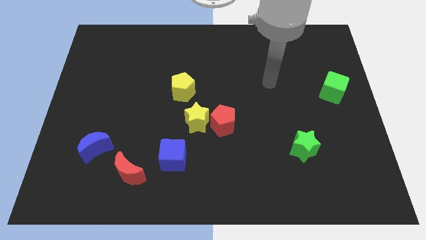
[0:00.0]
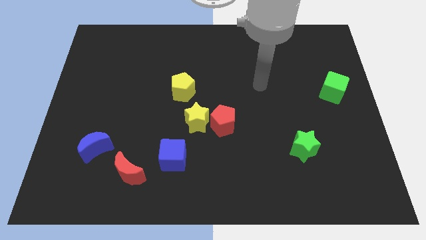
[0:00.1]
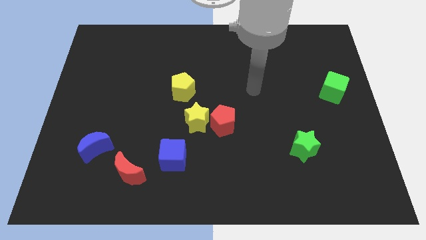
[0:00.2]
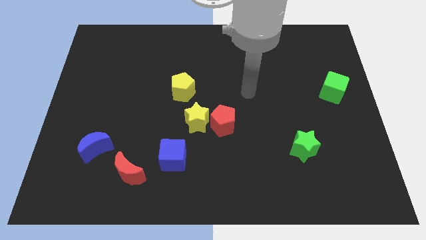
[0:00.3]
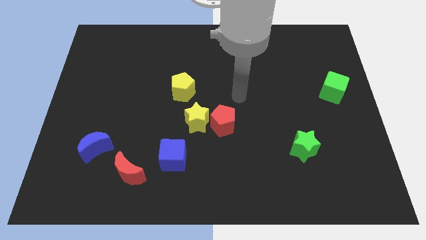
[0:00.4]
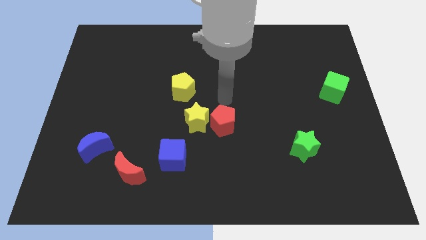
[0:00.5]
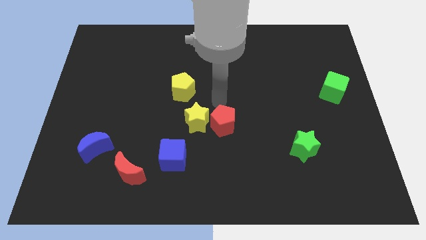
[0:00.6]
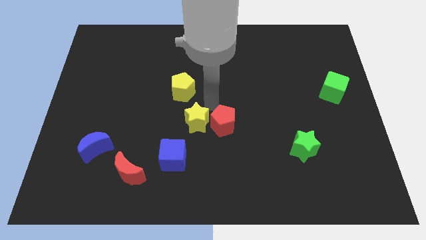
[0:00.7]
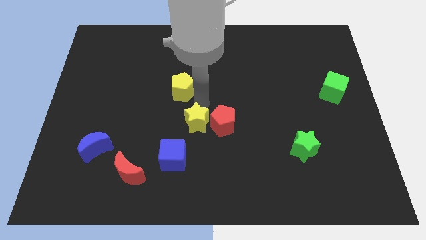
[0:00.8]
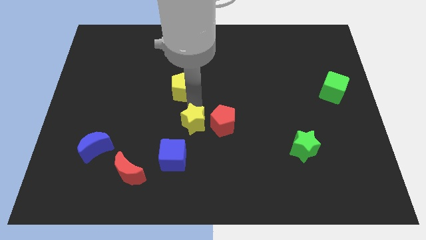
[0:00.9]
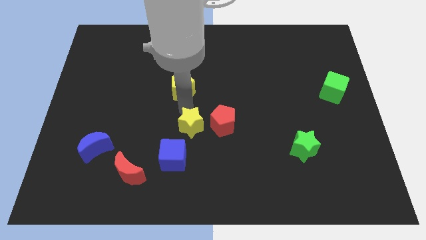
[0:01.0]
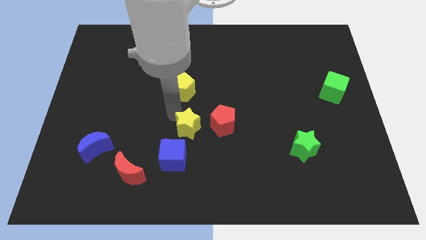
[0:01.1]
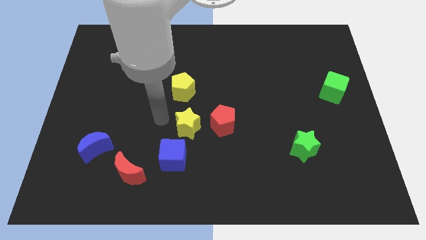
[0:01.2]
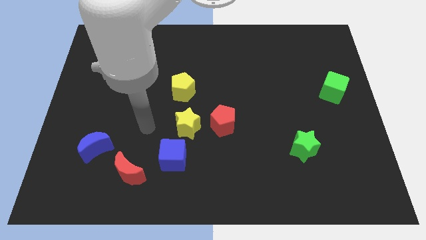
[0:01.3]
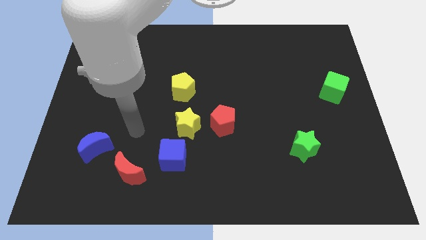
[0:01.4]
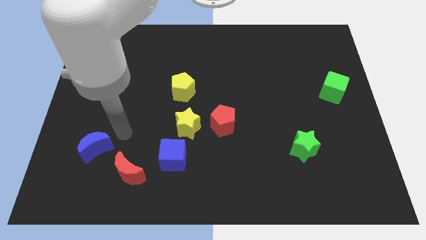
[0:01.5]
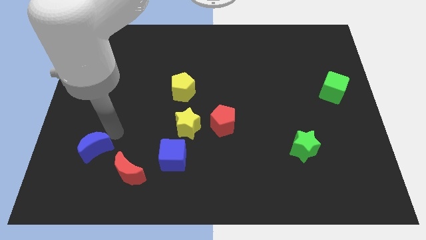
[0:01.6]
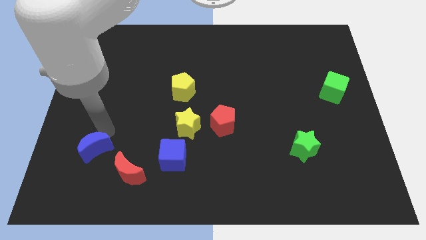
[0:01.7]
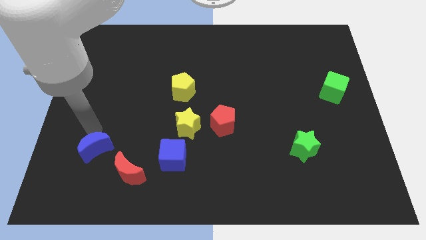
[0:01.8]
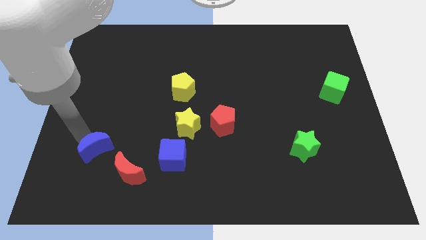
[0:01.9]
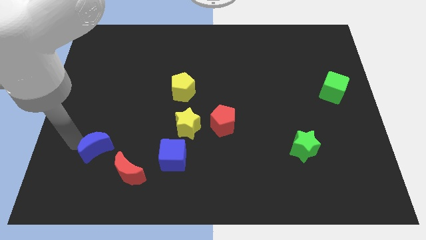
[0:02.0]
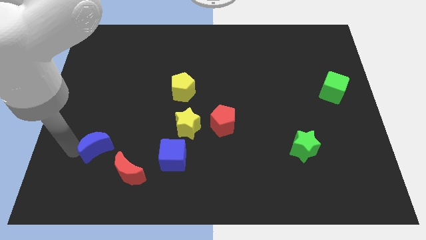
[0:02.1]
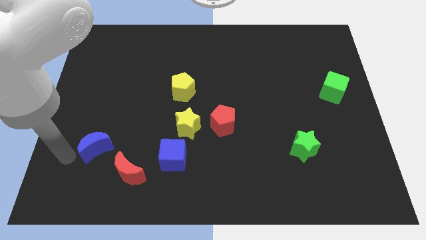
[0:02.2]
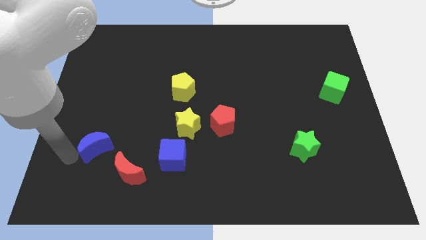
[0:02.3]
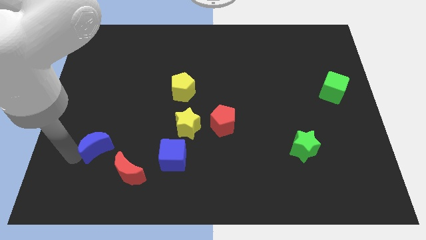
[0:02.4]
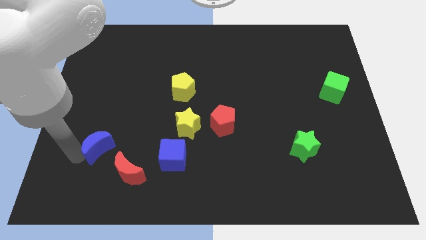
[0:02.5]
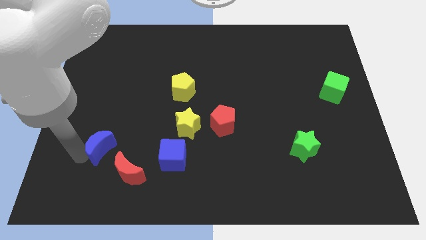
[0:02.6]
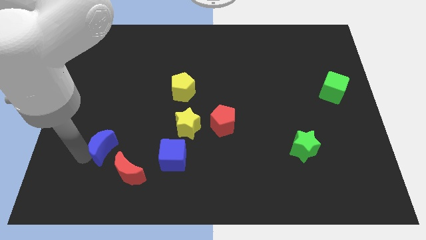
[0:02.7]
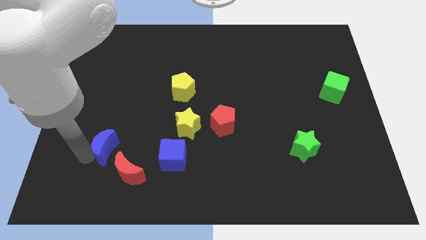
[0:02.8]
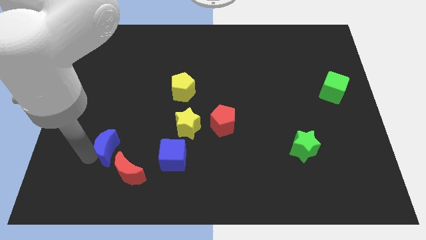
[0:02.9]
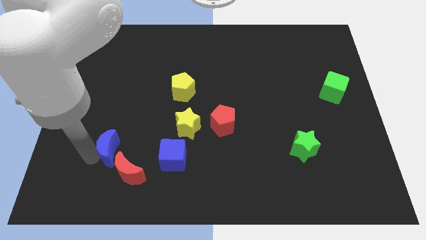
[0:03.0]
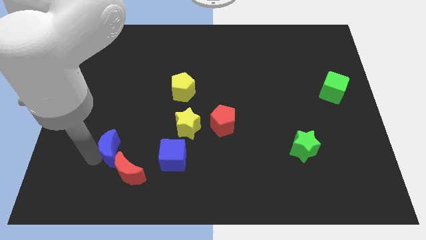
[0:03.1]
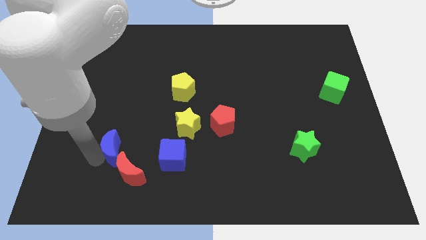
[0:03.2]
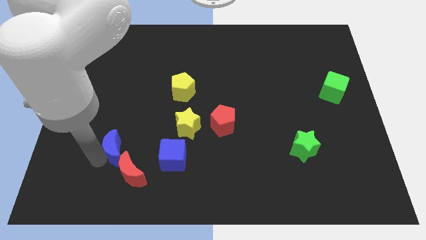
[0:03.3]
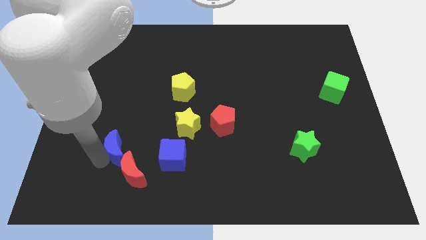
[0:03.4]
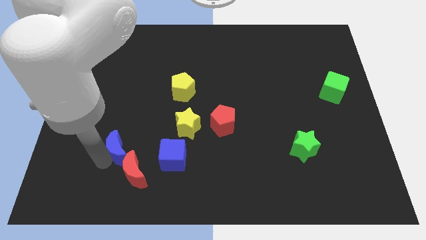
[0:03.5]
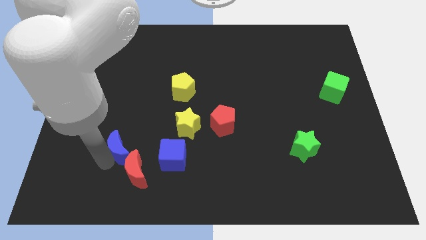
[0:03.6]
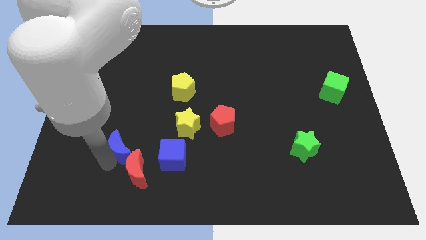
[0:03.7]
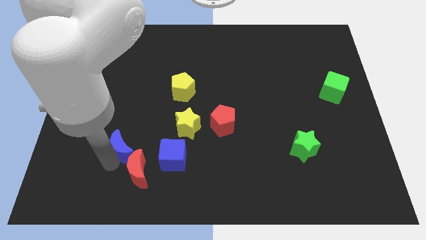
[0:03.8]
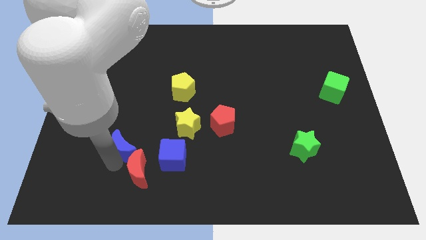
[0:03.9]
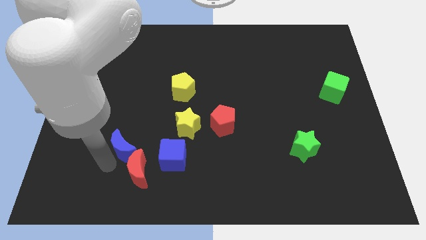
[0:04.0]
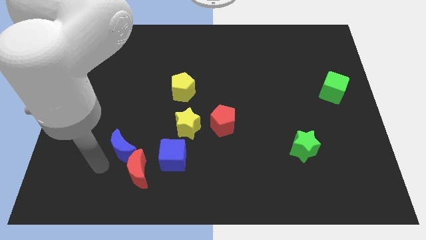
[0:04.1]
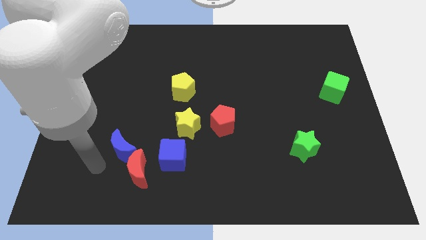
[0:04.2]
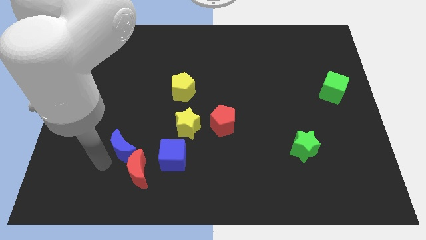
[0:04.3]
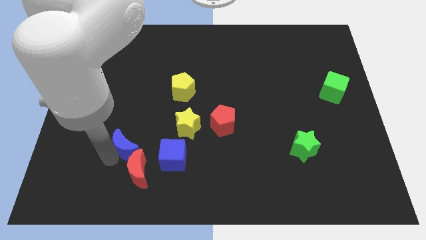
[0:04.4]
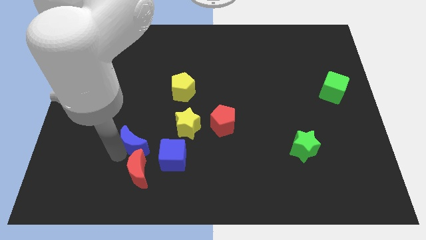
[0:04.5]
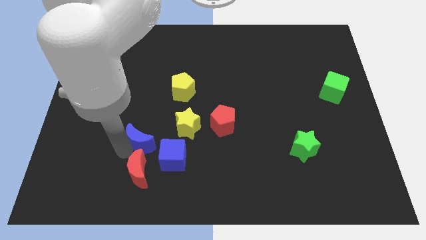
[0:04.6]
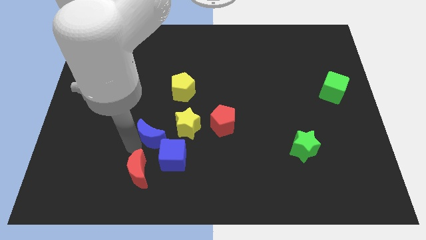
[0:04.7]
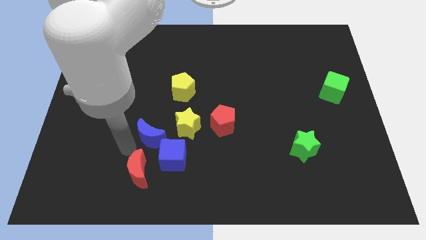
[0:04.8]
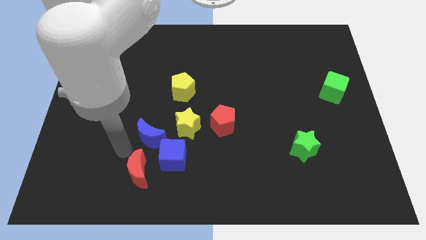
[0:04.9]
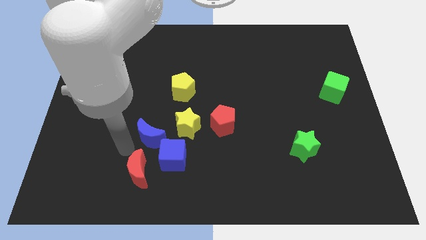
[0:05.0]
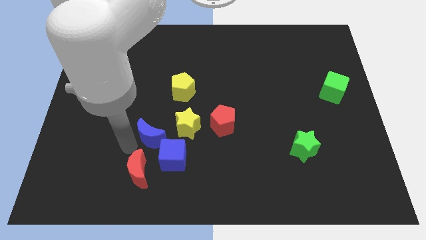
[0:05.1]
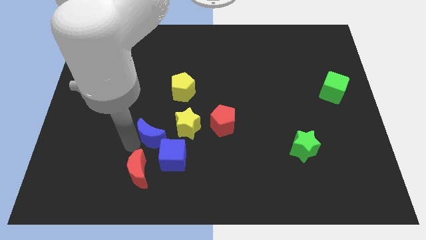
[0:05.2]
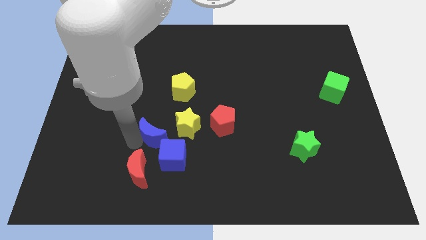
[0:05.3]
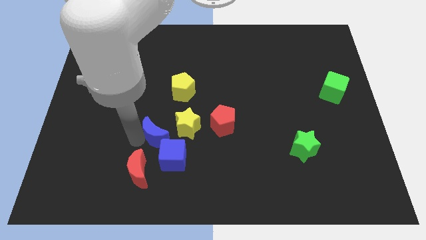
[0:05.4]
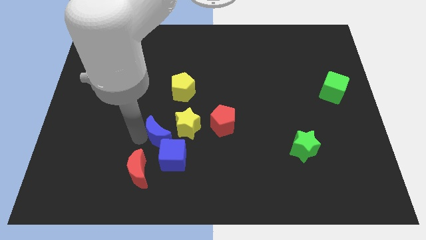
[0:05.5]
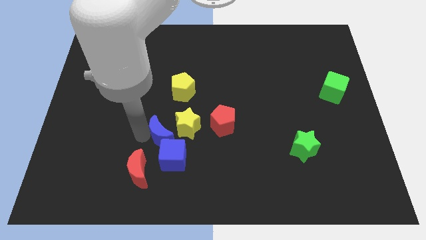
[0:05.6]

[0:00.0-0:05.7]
move the blue moon to the bottom of the yellow pentagon

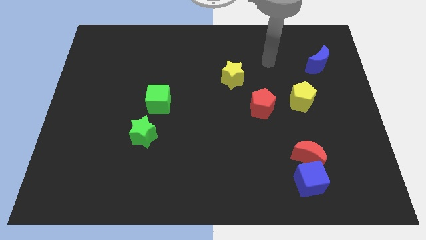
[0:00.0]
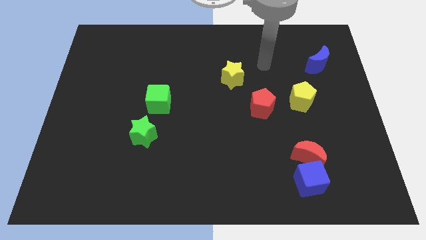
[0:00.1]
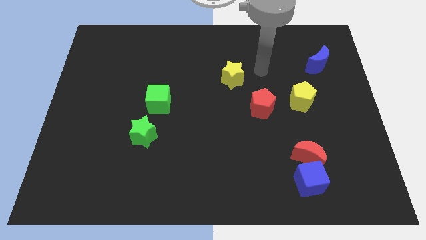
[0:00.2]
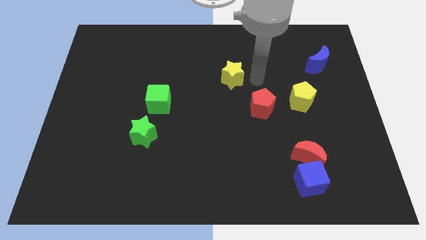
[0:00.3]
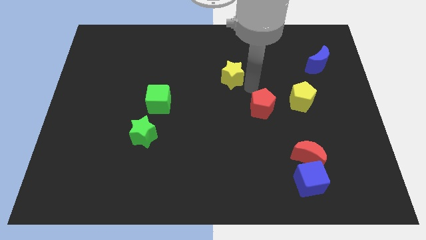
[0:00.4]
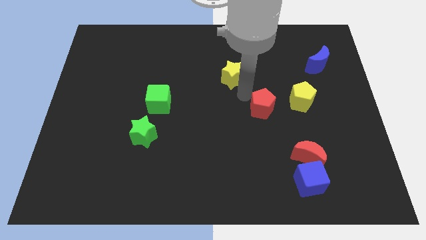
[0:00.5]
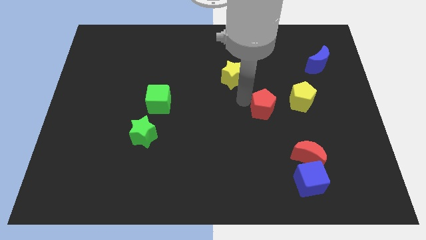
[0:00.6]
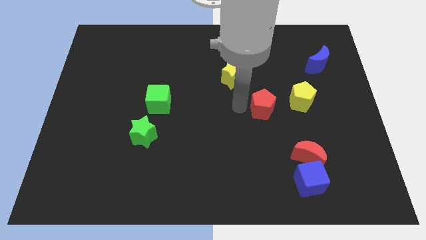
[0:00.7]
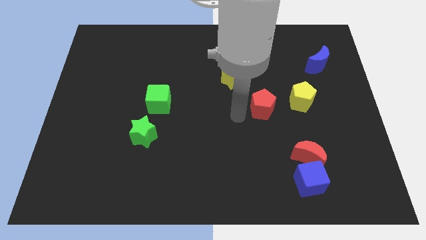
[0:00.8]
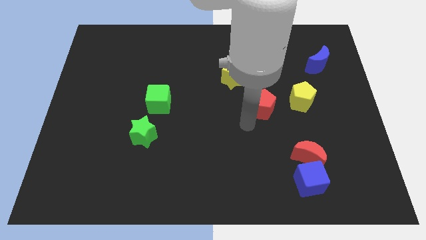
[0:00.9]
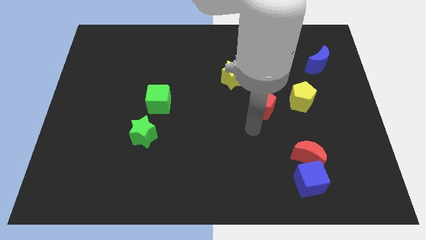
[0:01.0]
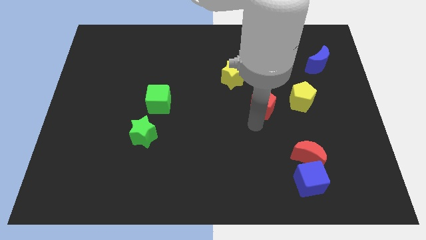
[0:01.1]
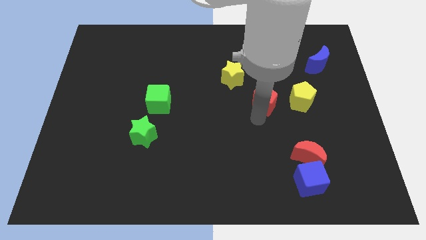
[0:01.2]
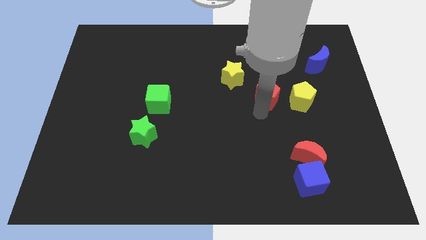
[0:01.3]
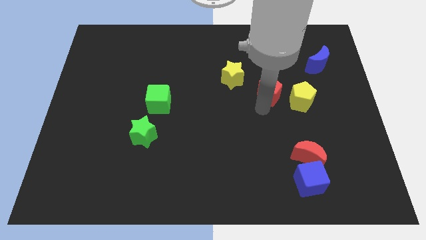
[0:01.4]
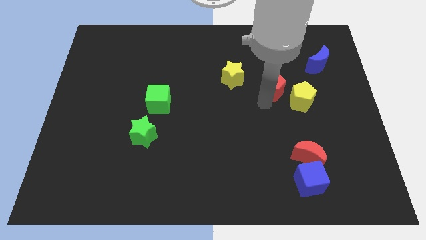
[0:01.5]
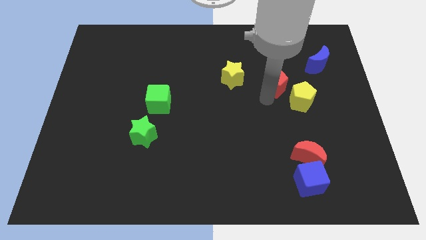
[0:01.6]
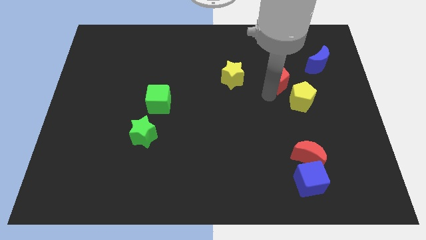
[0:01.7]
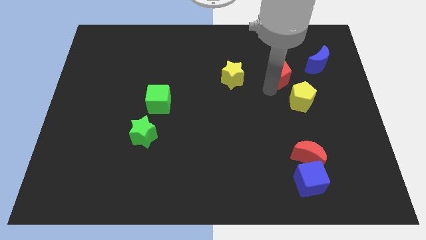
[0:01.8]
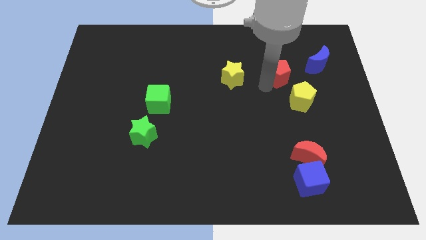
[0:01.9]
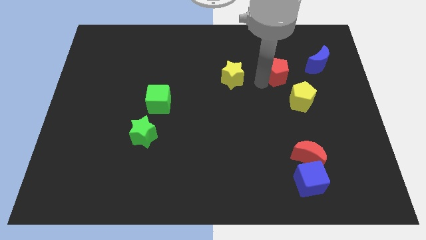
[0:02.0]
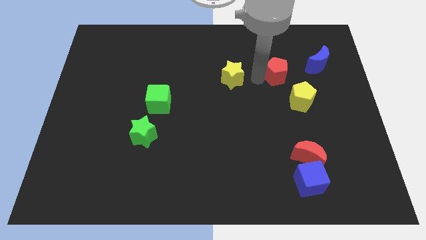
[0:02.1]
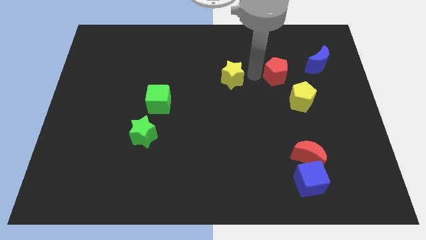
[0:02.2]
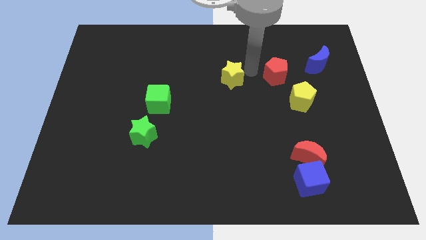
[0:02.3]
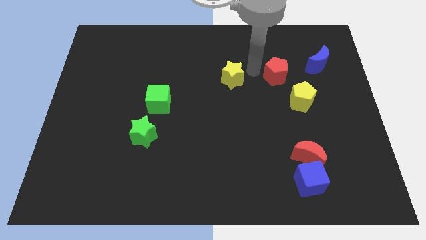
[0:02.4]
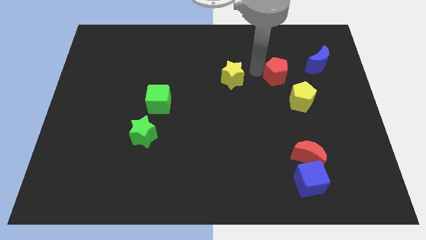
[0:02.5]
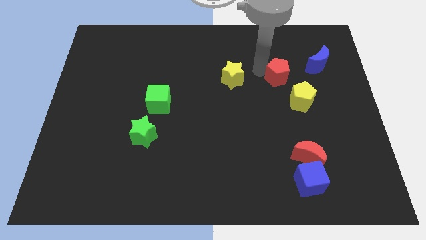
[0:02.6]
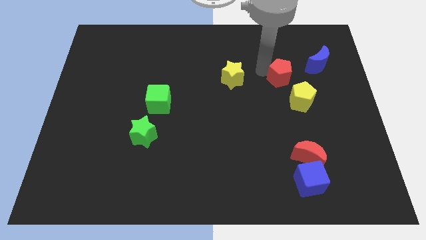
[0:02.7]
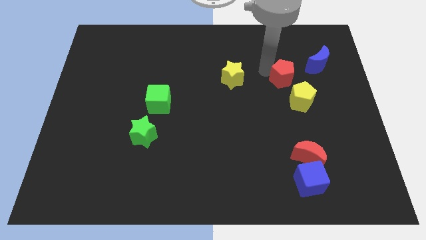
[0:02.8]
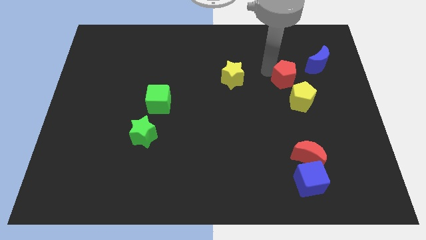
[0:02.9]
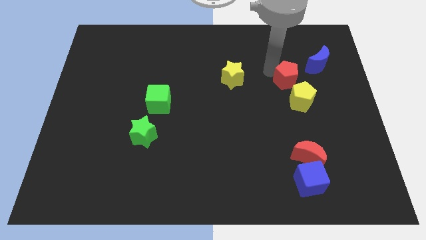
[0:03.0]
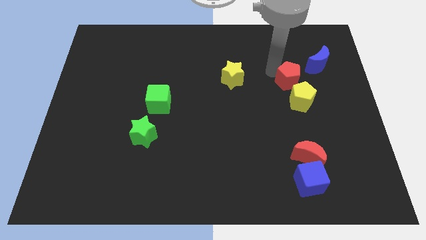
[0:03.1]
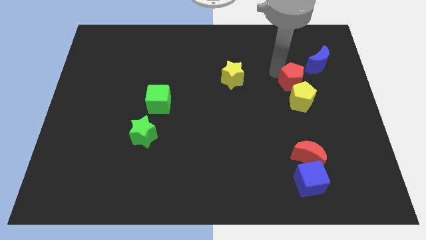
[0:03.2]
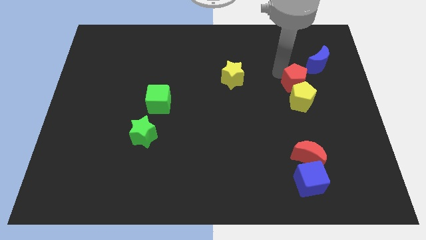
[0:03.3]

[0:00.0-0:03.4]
put the red pentagon to the top right side of the yellow pentagon
